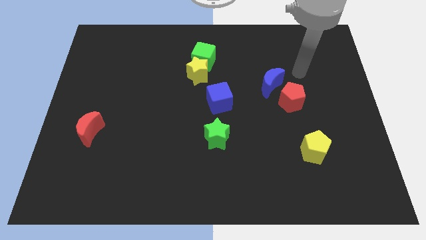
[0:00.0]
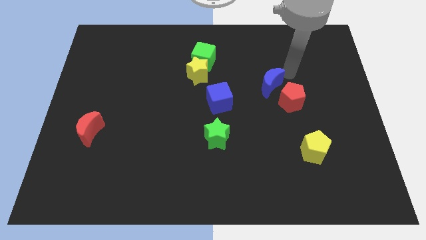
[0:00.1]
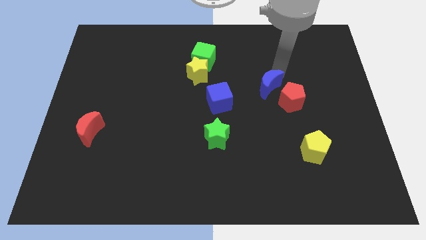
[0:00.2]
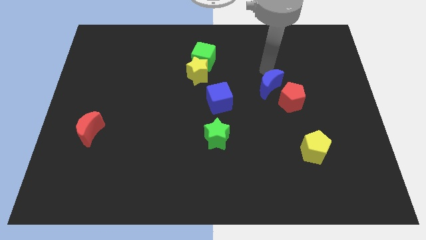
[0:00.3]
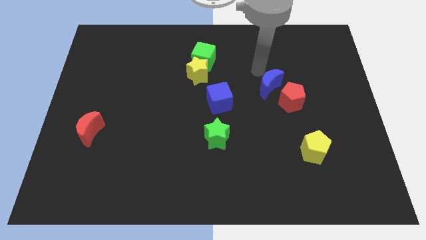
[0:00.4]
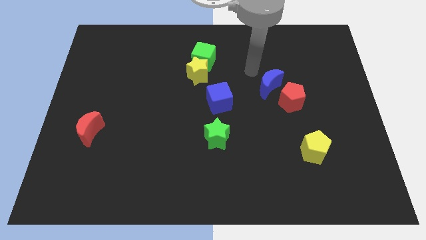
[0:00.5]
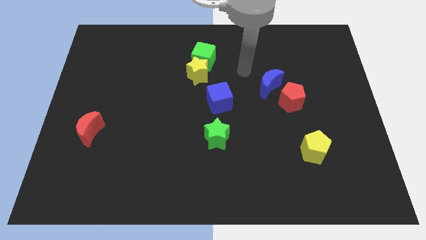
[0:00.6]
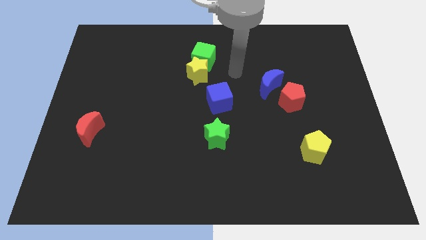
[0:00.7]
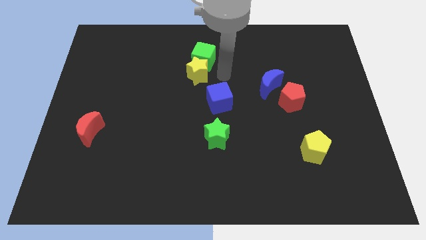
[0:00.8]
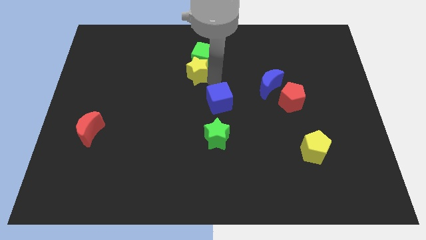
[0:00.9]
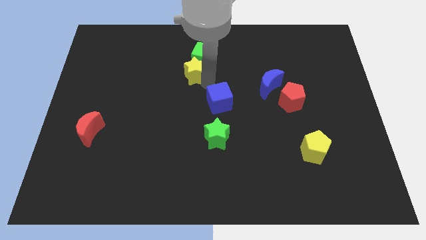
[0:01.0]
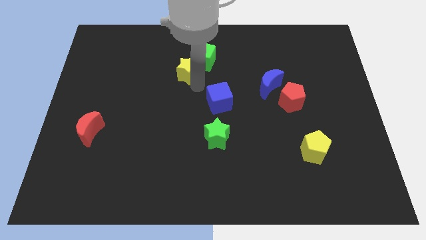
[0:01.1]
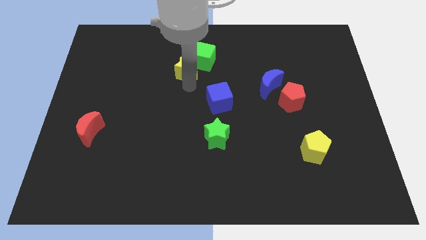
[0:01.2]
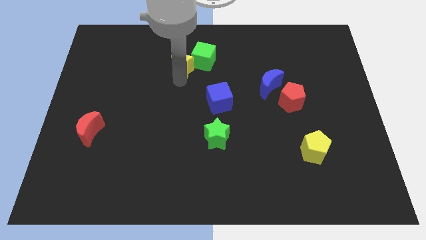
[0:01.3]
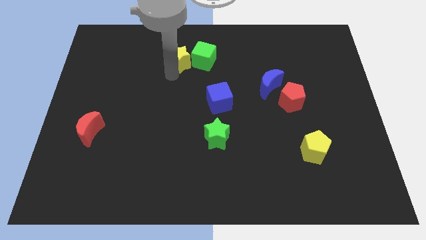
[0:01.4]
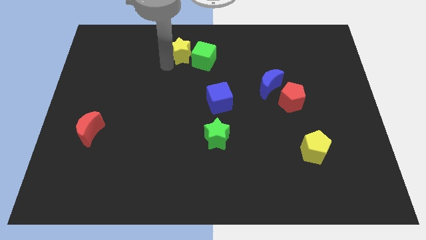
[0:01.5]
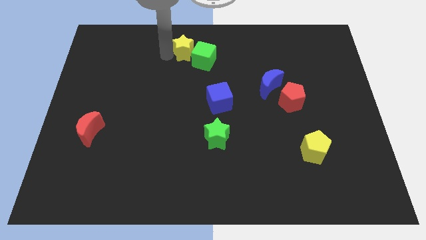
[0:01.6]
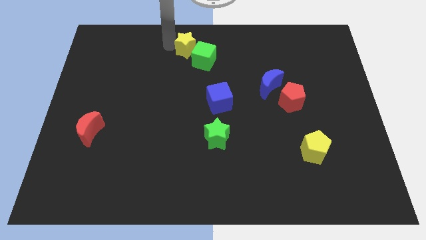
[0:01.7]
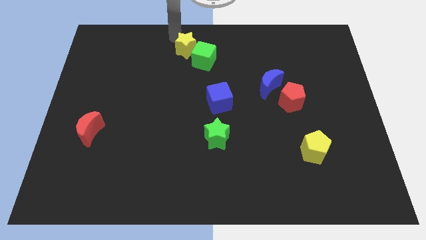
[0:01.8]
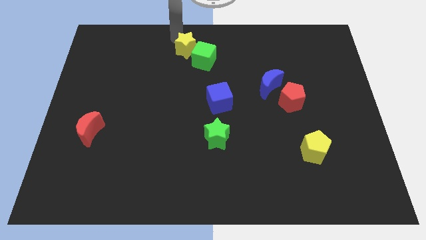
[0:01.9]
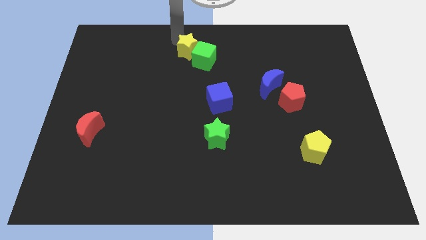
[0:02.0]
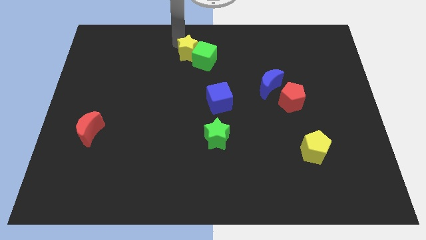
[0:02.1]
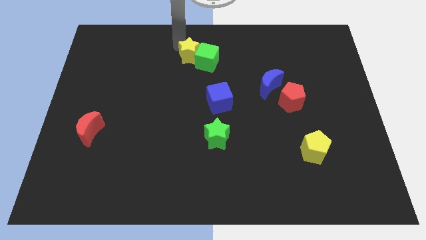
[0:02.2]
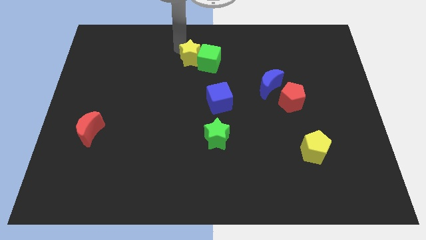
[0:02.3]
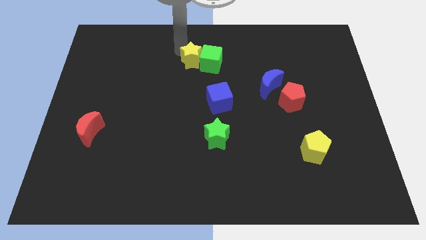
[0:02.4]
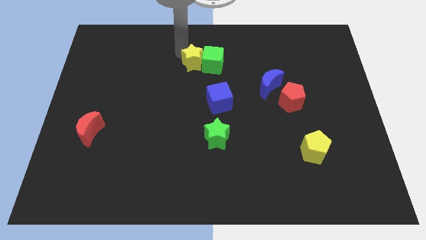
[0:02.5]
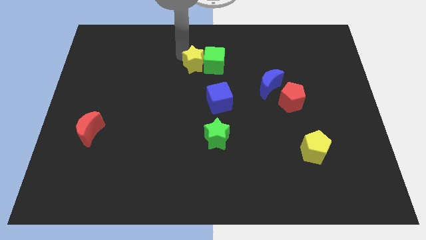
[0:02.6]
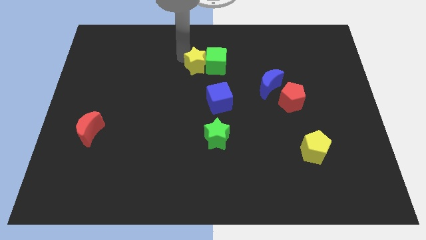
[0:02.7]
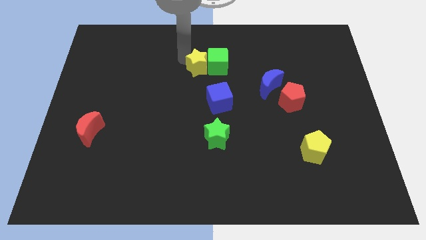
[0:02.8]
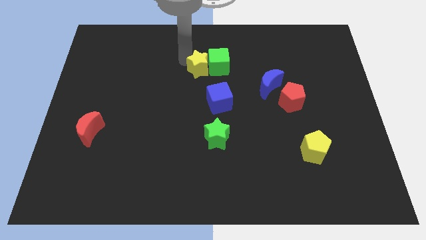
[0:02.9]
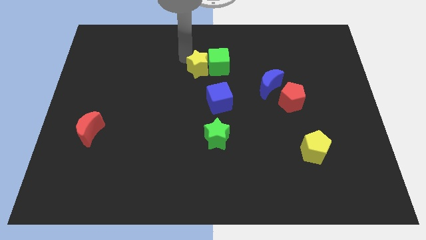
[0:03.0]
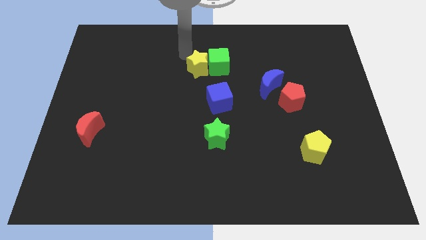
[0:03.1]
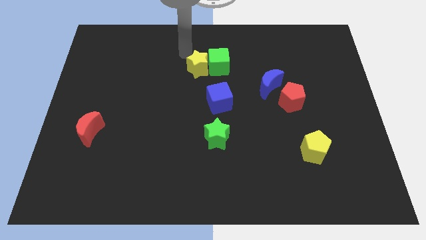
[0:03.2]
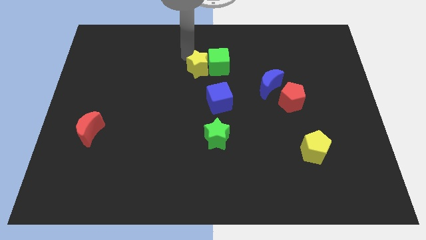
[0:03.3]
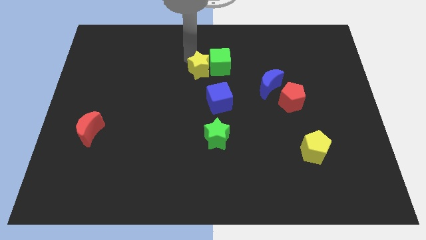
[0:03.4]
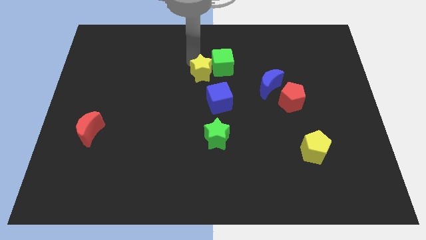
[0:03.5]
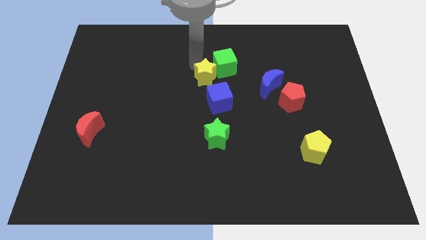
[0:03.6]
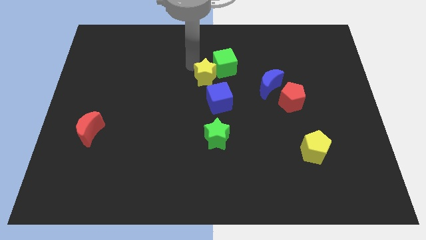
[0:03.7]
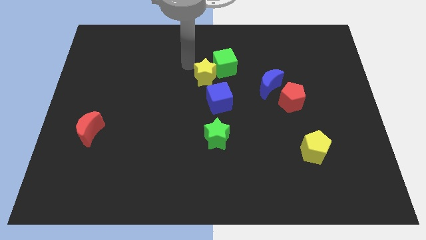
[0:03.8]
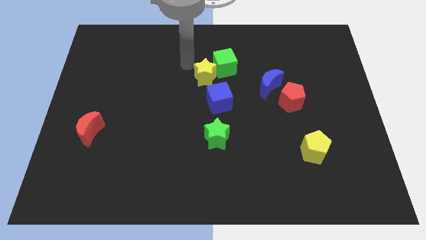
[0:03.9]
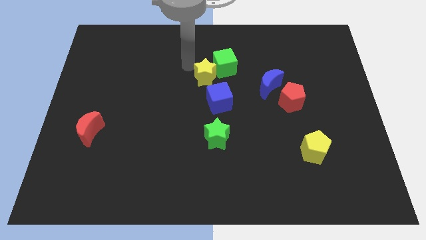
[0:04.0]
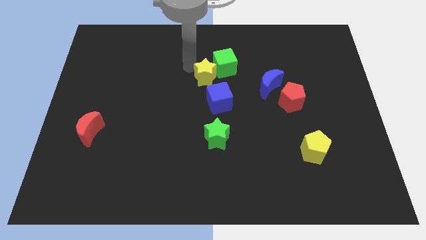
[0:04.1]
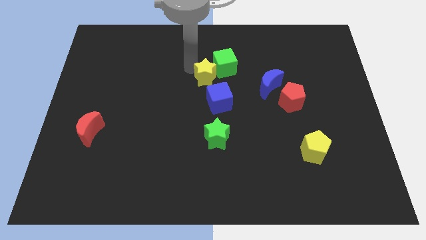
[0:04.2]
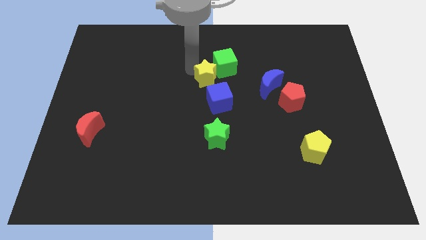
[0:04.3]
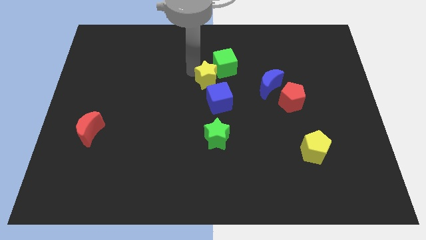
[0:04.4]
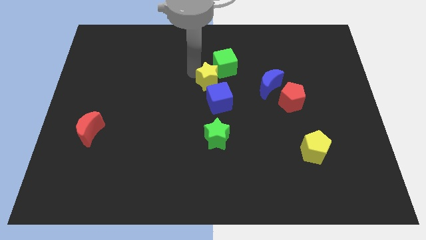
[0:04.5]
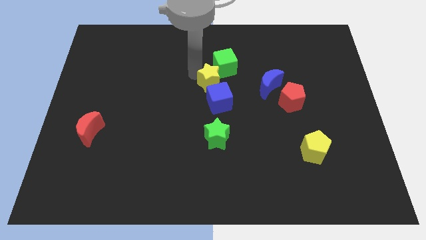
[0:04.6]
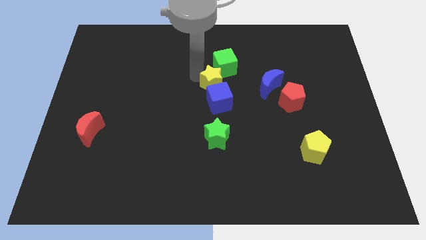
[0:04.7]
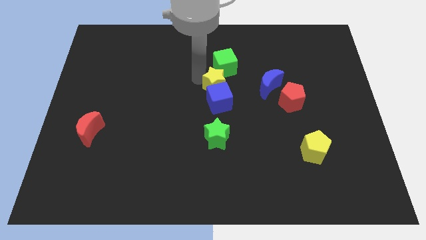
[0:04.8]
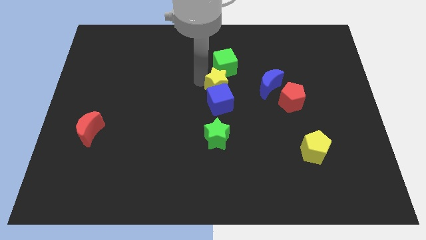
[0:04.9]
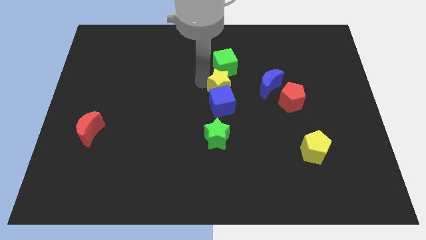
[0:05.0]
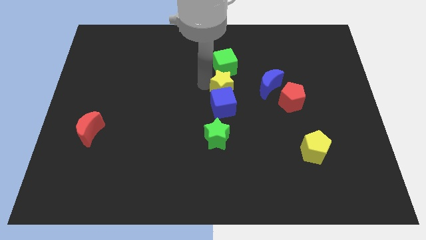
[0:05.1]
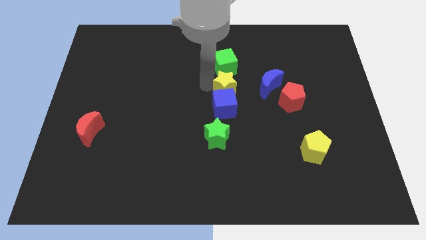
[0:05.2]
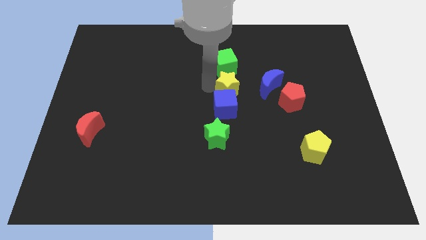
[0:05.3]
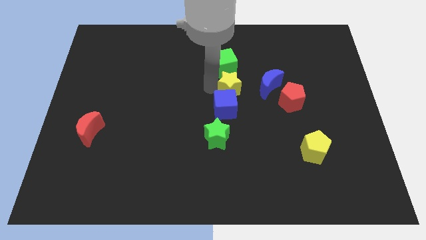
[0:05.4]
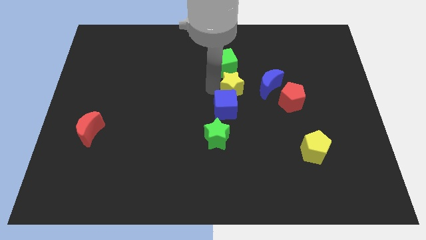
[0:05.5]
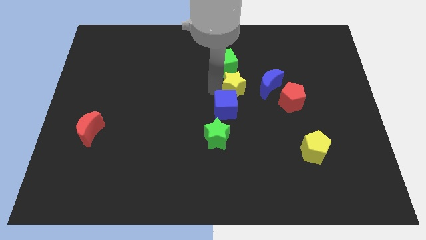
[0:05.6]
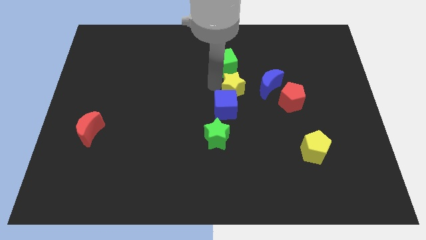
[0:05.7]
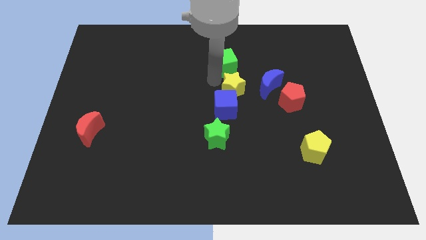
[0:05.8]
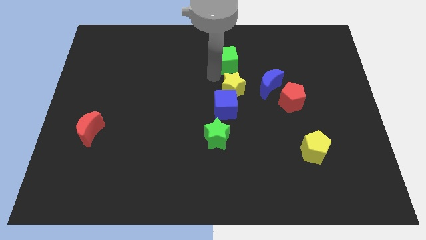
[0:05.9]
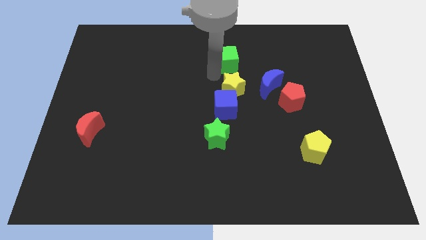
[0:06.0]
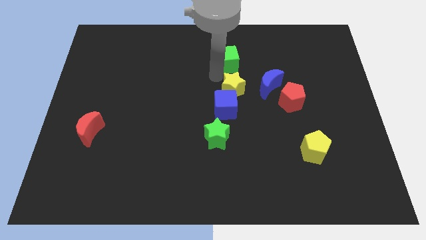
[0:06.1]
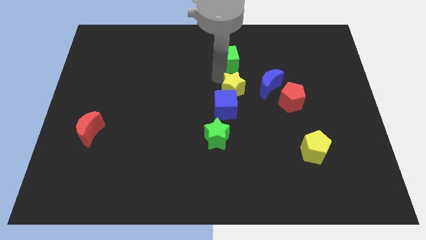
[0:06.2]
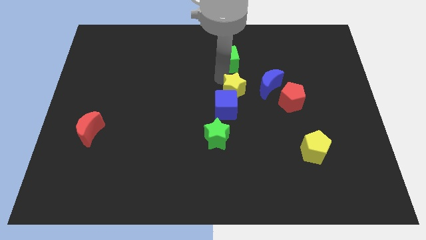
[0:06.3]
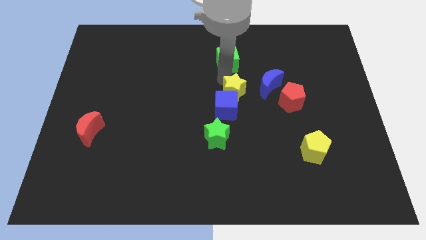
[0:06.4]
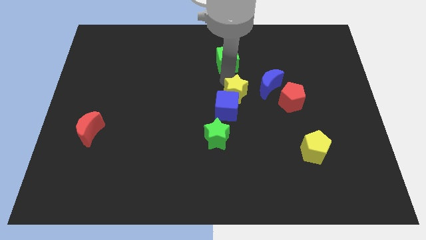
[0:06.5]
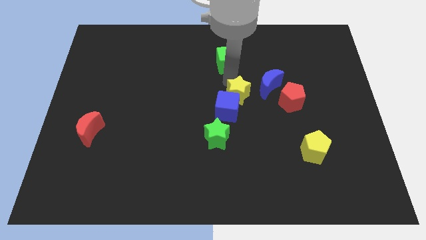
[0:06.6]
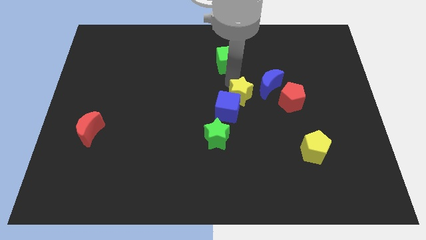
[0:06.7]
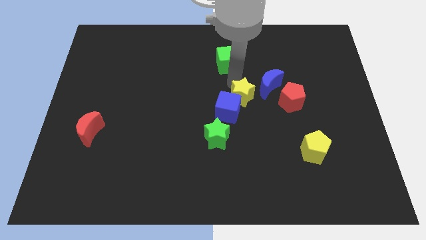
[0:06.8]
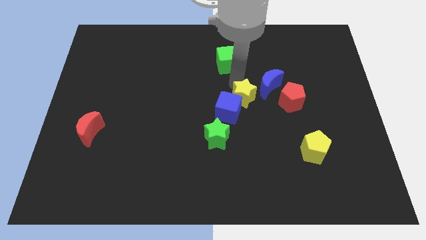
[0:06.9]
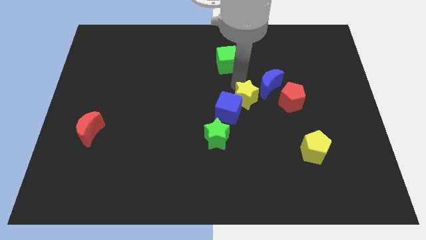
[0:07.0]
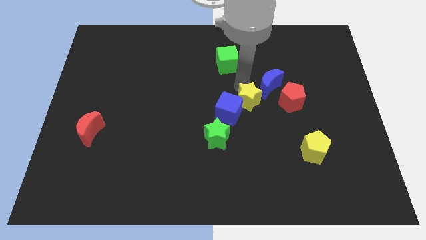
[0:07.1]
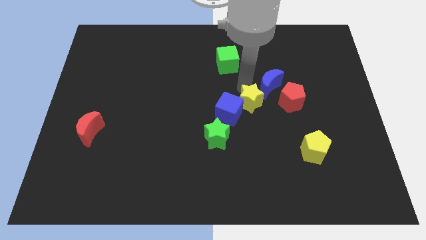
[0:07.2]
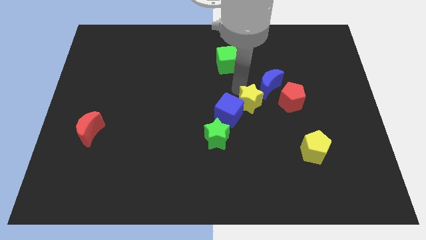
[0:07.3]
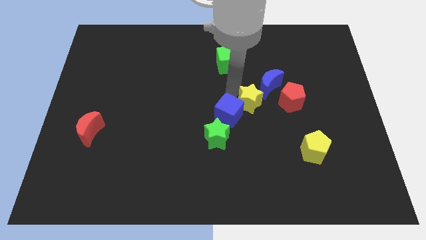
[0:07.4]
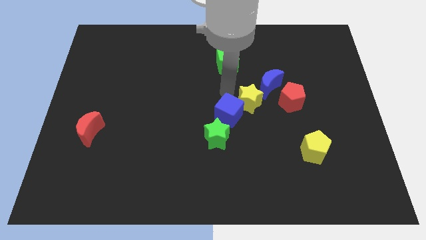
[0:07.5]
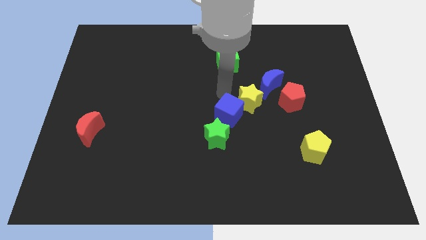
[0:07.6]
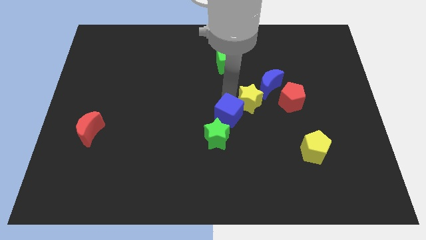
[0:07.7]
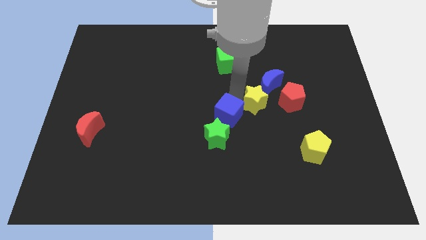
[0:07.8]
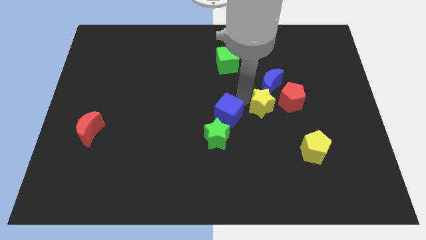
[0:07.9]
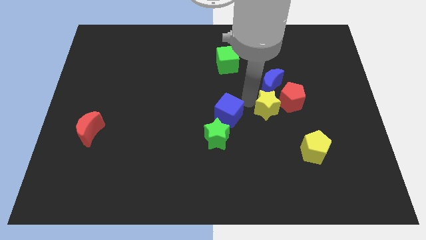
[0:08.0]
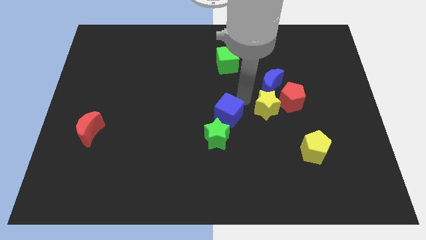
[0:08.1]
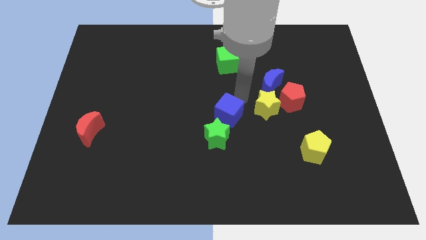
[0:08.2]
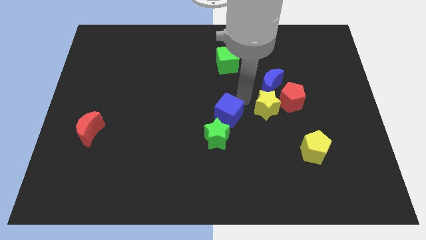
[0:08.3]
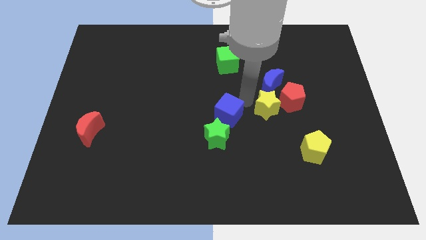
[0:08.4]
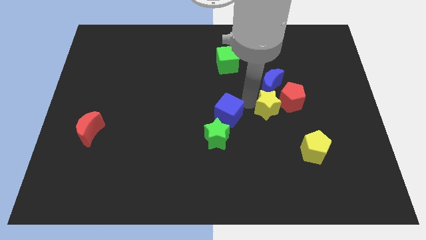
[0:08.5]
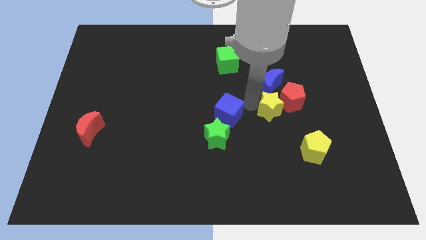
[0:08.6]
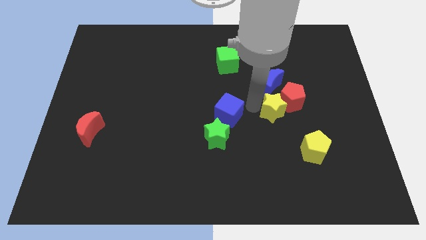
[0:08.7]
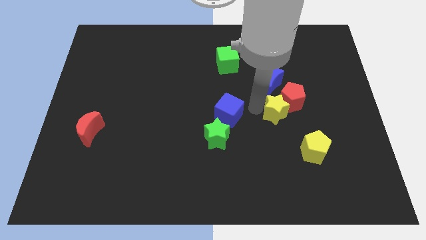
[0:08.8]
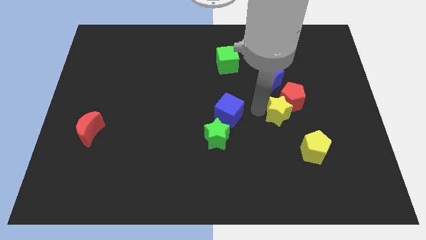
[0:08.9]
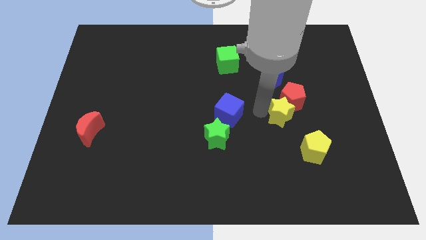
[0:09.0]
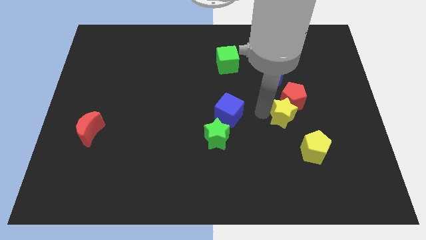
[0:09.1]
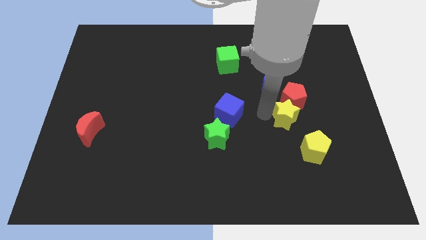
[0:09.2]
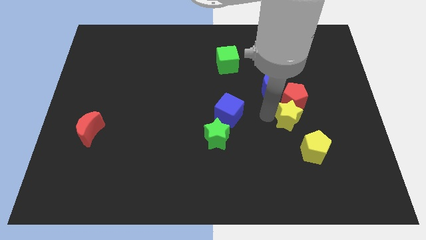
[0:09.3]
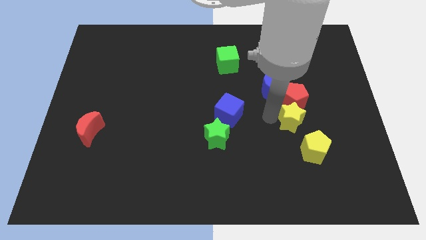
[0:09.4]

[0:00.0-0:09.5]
put the yellow star to the bottom right of the red pentagon
